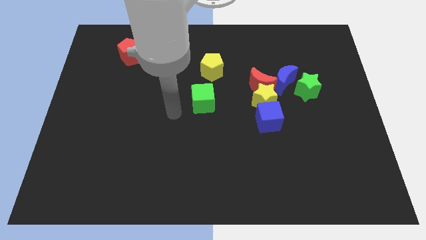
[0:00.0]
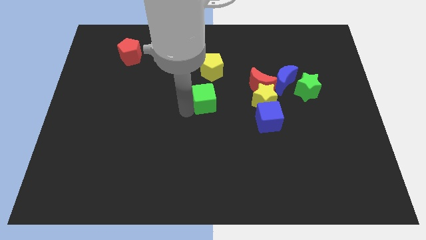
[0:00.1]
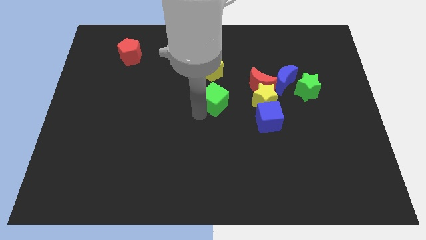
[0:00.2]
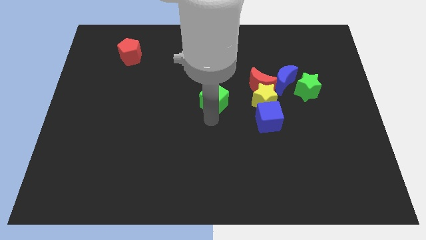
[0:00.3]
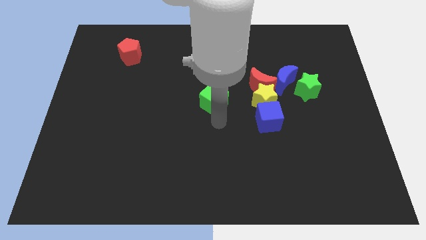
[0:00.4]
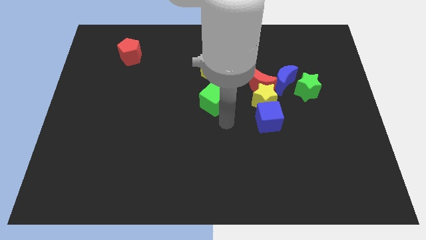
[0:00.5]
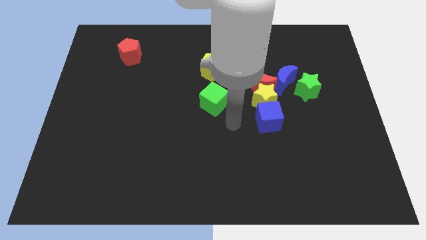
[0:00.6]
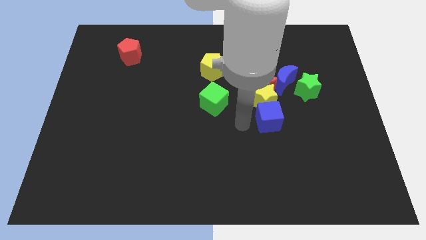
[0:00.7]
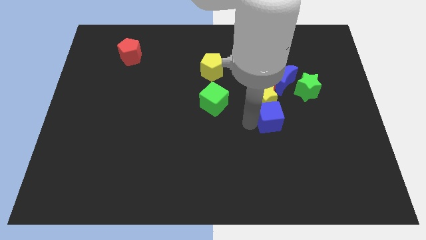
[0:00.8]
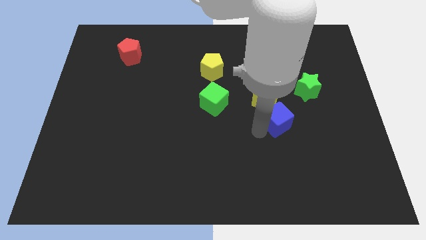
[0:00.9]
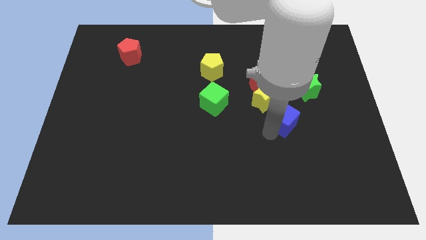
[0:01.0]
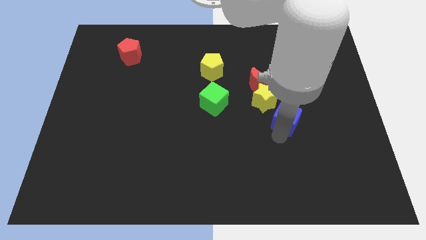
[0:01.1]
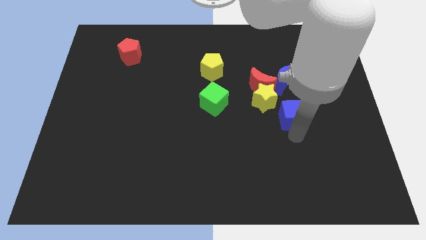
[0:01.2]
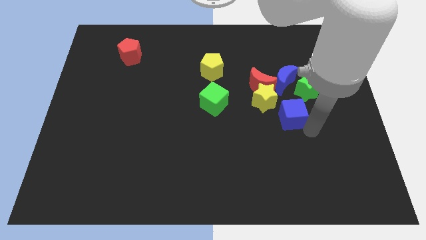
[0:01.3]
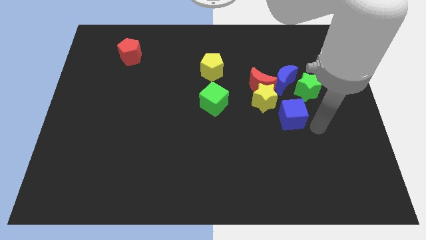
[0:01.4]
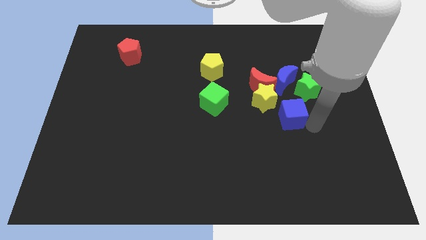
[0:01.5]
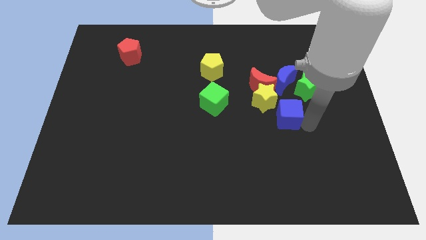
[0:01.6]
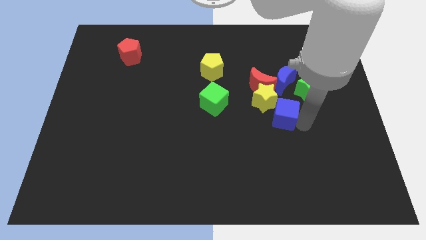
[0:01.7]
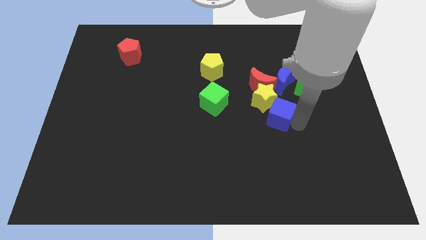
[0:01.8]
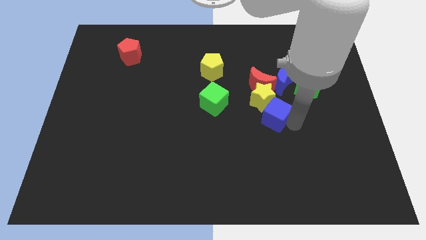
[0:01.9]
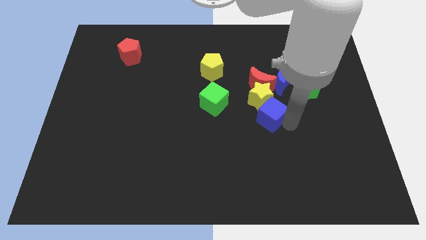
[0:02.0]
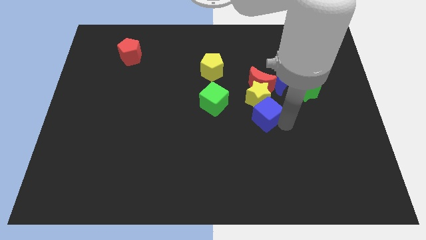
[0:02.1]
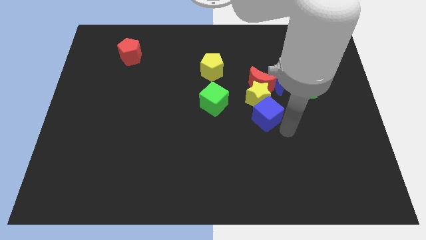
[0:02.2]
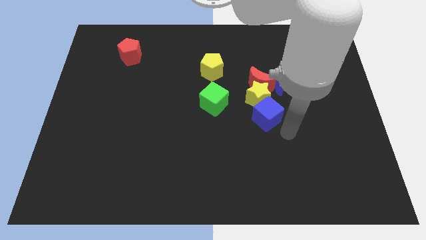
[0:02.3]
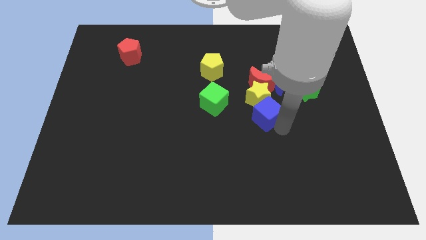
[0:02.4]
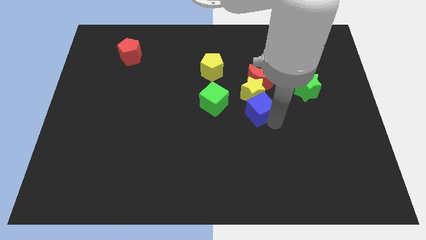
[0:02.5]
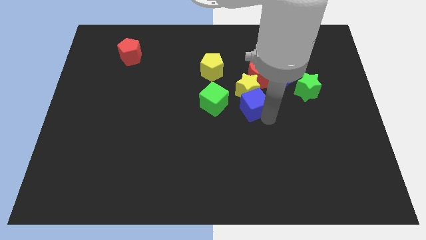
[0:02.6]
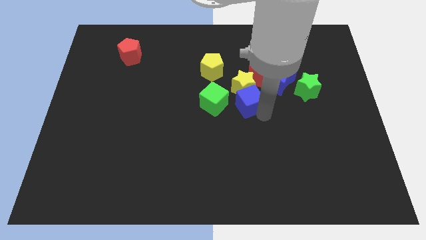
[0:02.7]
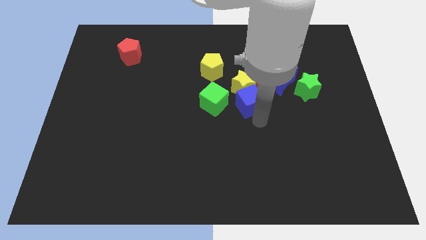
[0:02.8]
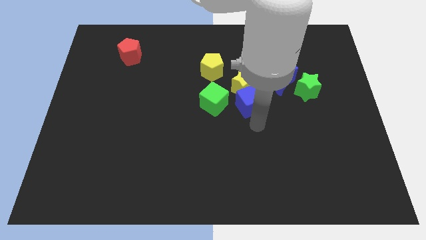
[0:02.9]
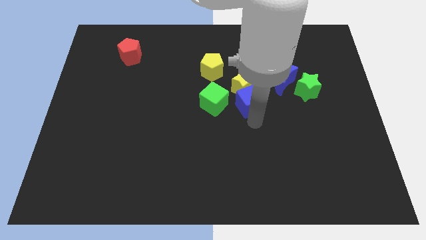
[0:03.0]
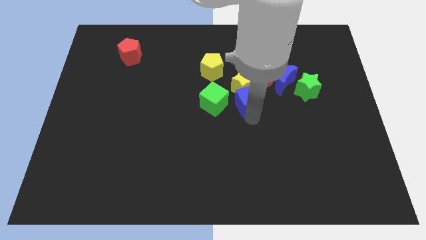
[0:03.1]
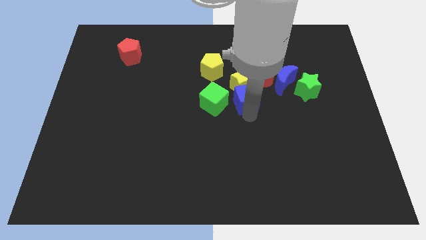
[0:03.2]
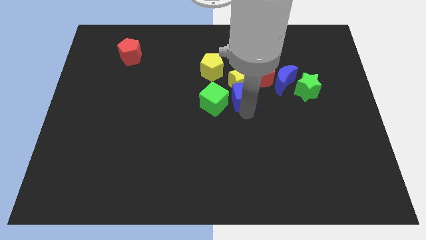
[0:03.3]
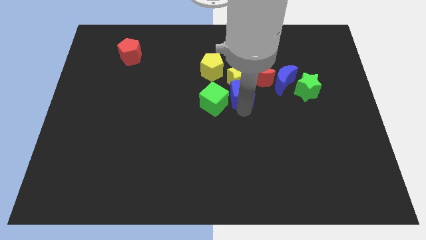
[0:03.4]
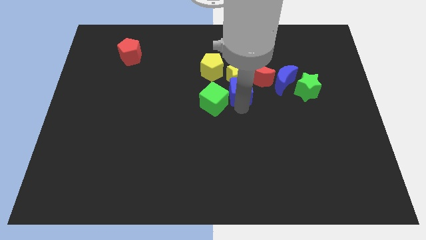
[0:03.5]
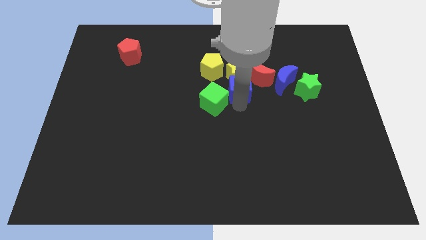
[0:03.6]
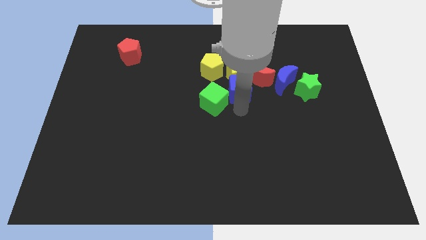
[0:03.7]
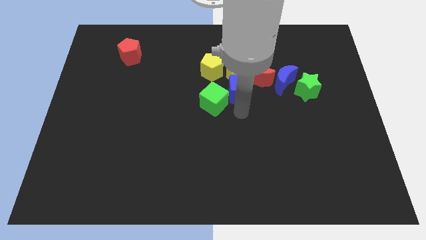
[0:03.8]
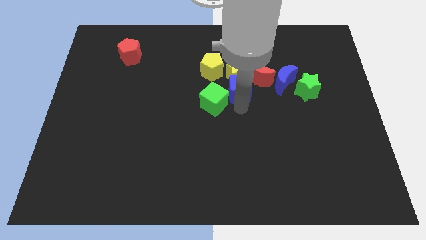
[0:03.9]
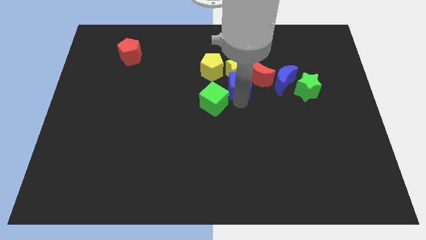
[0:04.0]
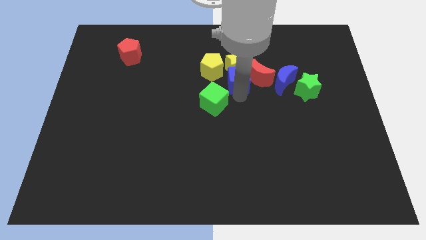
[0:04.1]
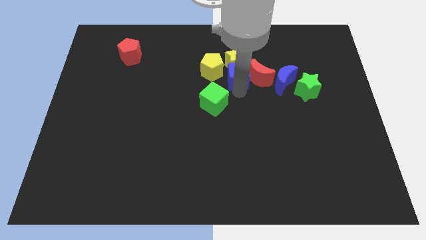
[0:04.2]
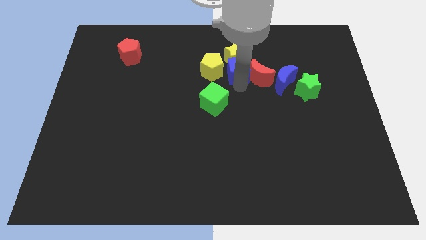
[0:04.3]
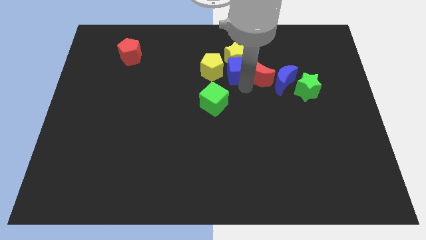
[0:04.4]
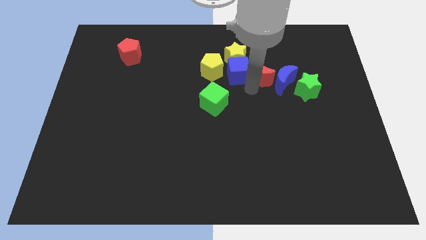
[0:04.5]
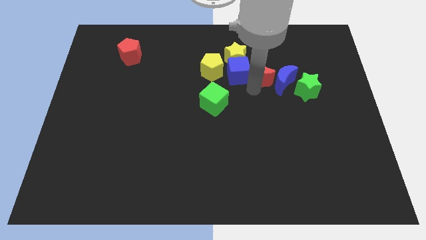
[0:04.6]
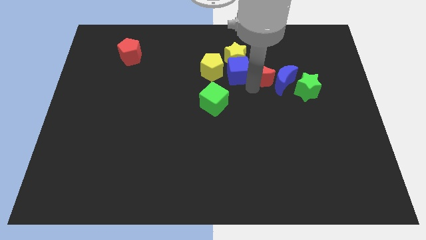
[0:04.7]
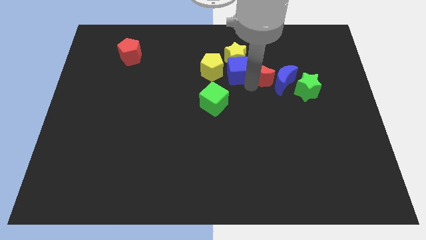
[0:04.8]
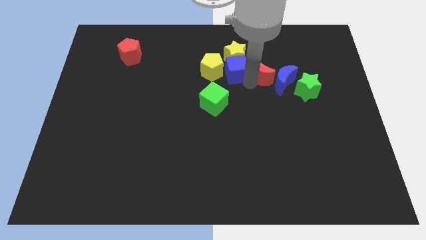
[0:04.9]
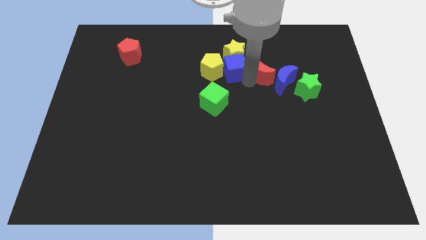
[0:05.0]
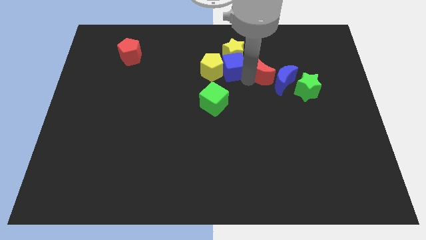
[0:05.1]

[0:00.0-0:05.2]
put the blue cube above the green cube

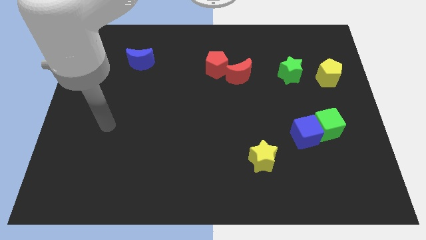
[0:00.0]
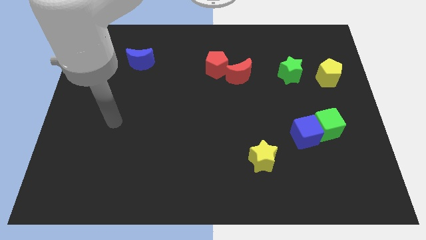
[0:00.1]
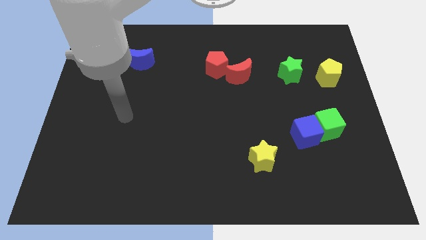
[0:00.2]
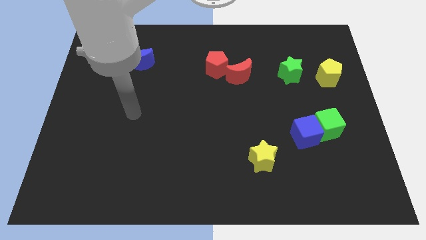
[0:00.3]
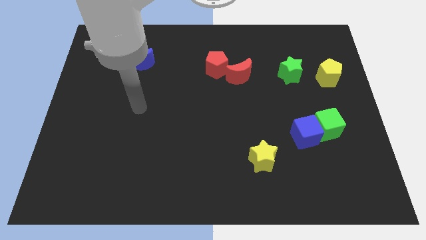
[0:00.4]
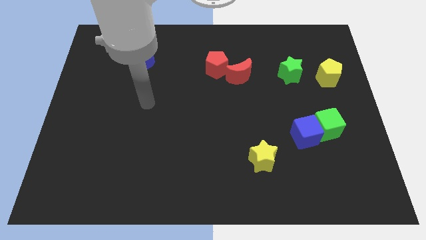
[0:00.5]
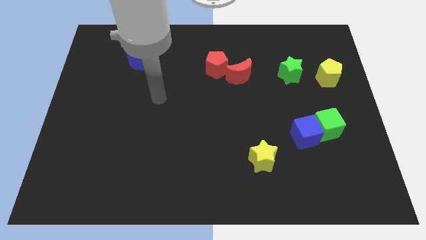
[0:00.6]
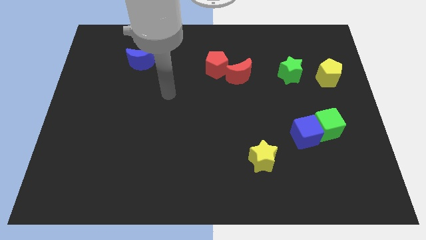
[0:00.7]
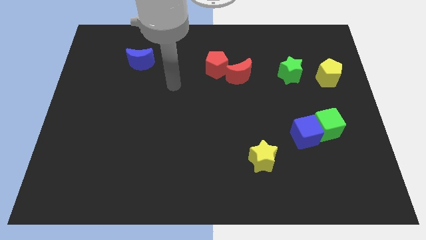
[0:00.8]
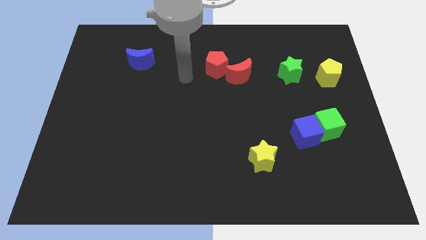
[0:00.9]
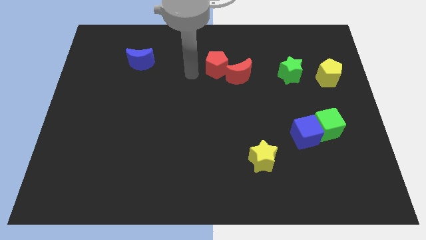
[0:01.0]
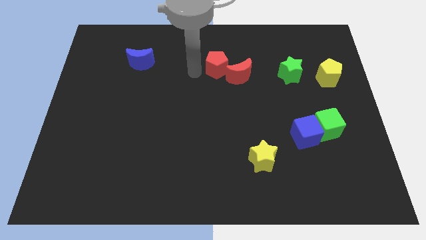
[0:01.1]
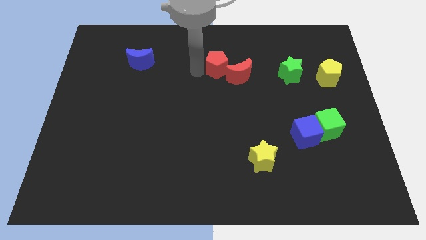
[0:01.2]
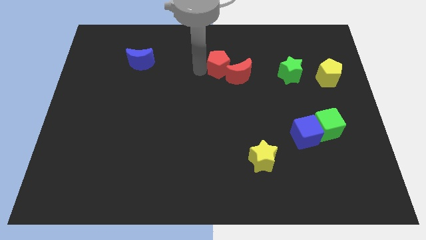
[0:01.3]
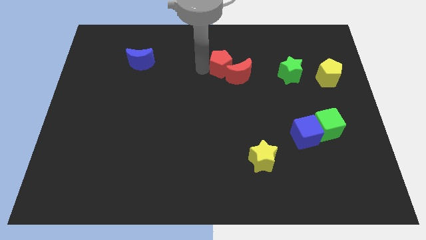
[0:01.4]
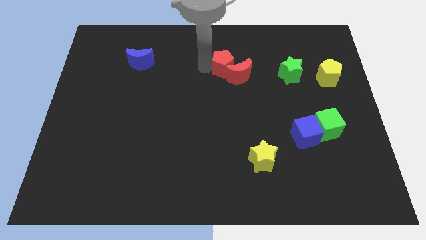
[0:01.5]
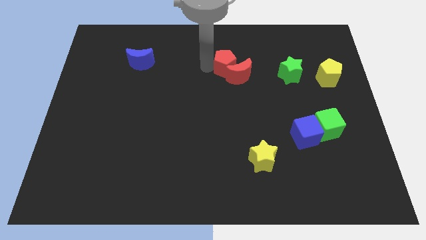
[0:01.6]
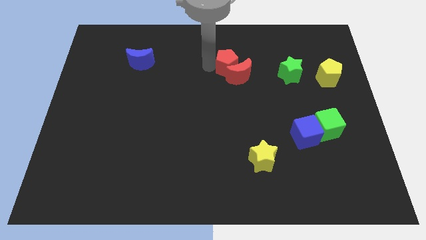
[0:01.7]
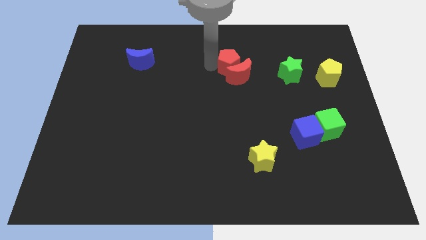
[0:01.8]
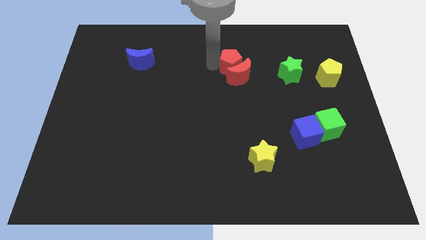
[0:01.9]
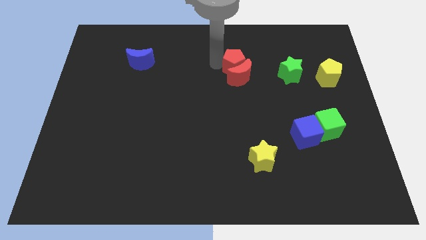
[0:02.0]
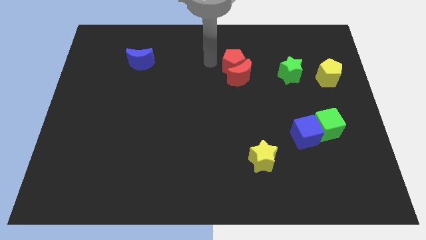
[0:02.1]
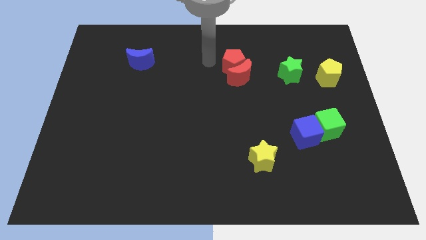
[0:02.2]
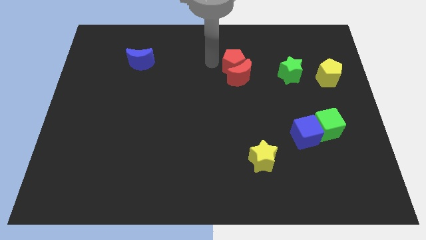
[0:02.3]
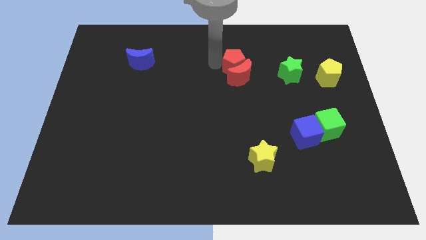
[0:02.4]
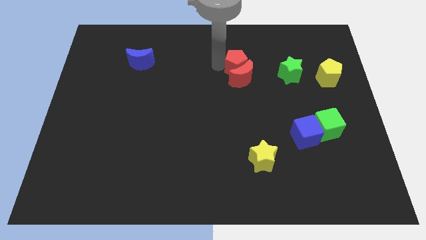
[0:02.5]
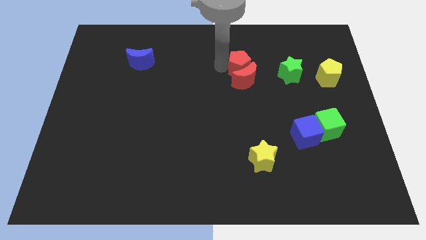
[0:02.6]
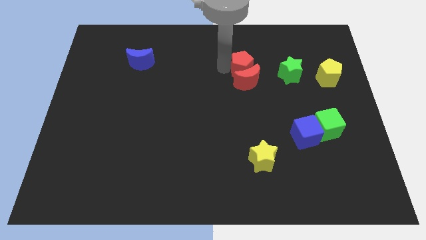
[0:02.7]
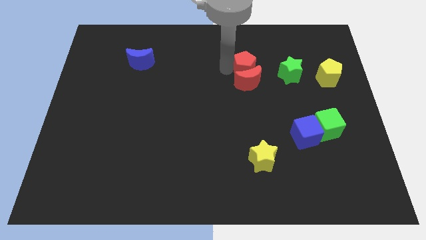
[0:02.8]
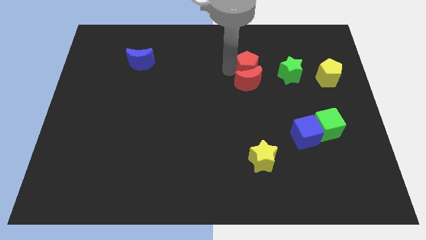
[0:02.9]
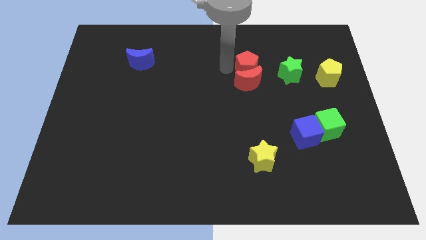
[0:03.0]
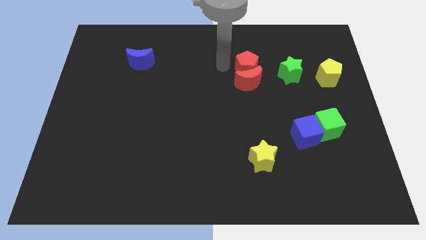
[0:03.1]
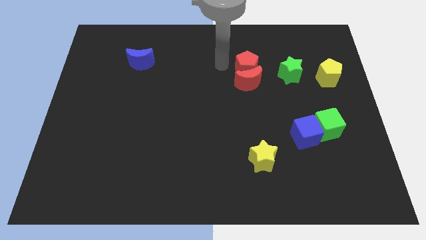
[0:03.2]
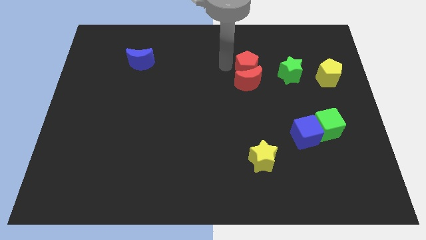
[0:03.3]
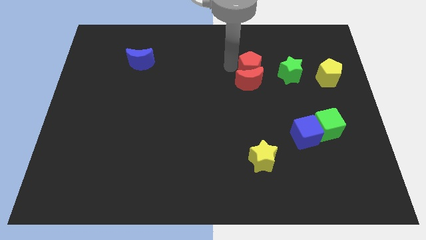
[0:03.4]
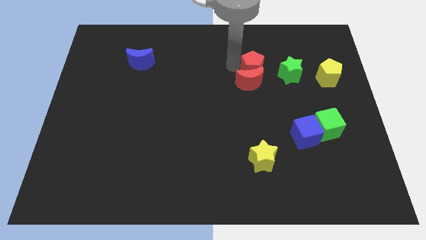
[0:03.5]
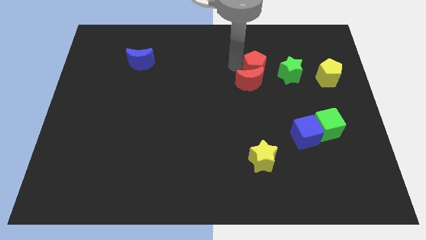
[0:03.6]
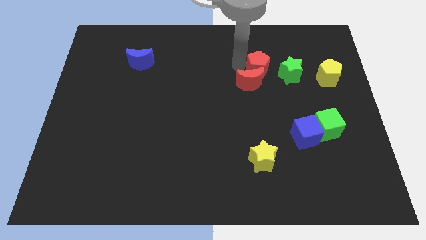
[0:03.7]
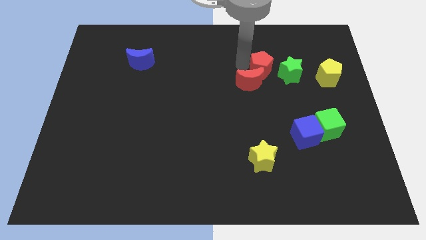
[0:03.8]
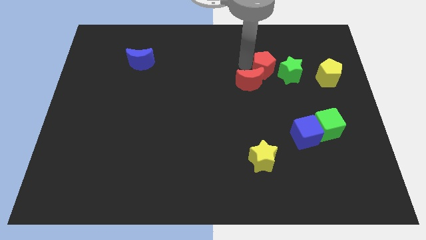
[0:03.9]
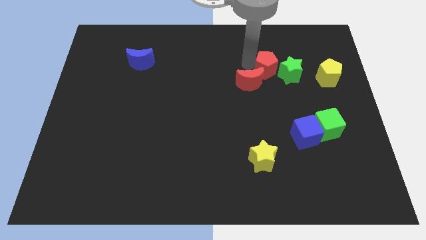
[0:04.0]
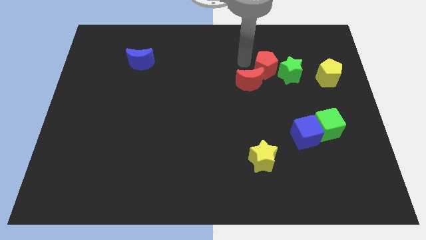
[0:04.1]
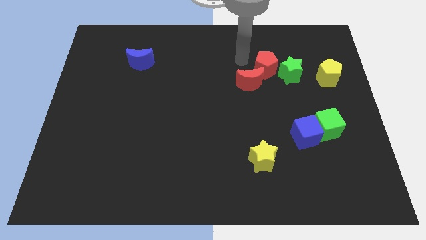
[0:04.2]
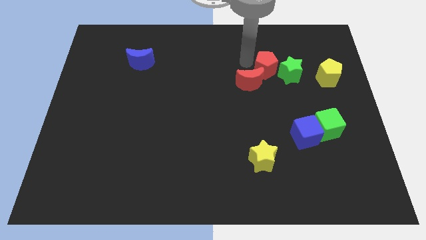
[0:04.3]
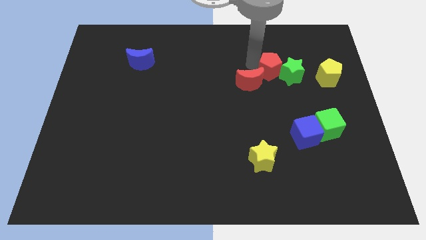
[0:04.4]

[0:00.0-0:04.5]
move the red pentagon just left of the yellow pentagon
